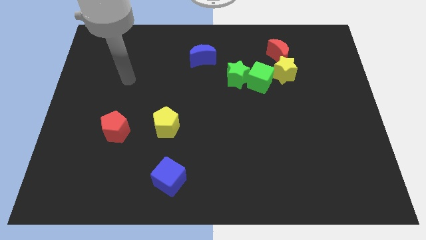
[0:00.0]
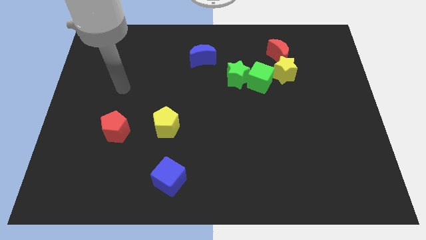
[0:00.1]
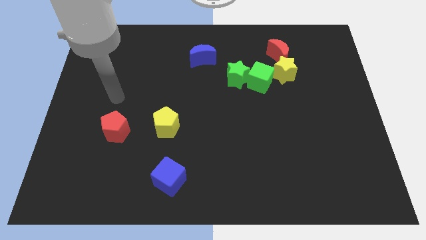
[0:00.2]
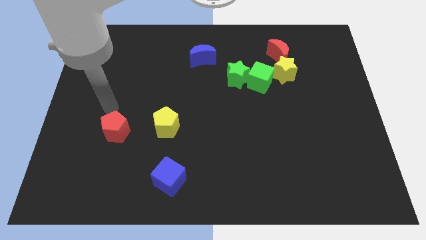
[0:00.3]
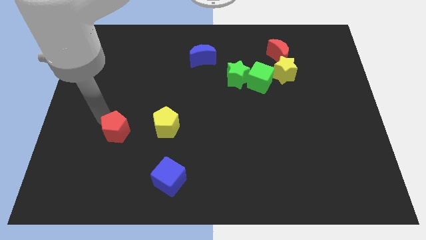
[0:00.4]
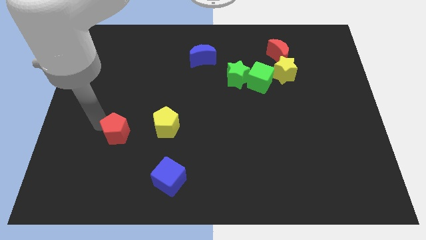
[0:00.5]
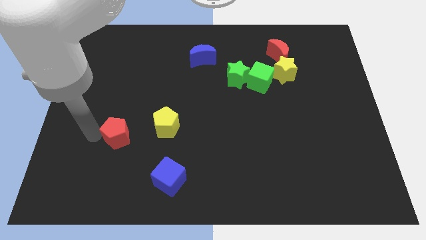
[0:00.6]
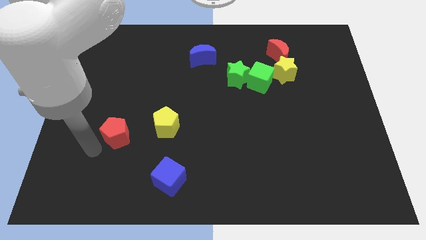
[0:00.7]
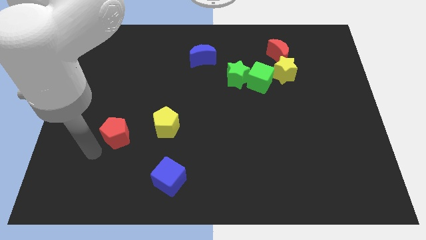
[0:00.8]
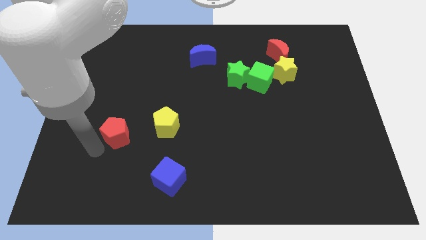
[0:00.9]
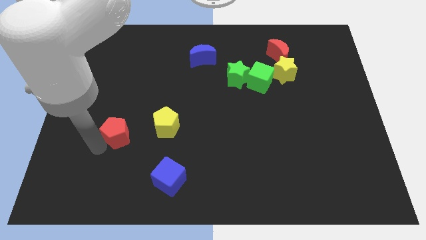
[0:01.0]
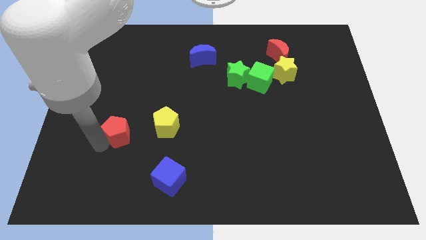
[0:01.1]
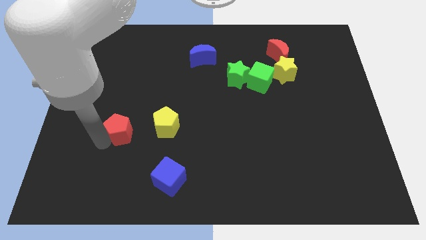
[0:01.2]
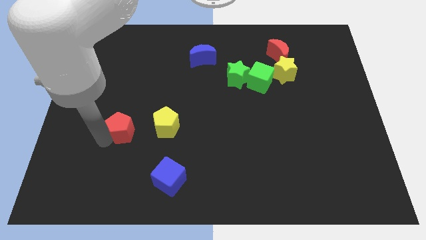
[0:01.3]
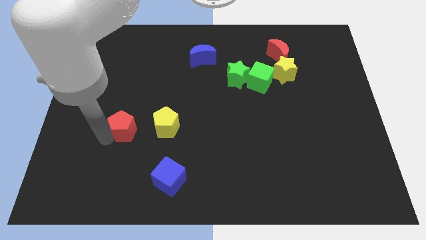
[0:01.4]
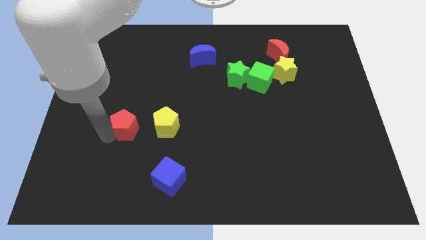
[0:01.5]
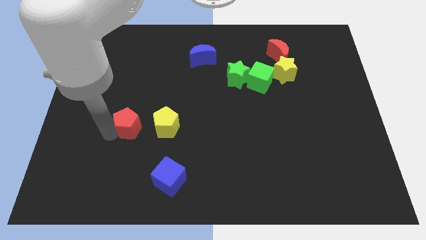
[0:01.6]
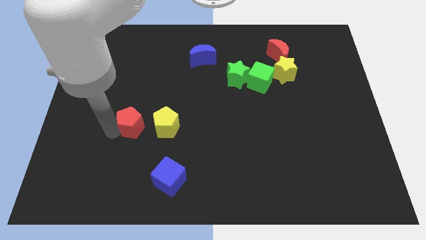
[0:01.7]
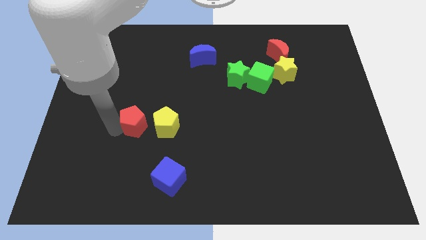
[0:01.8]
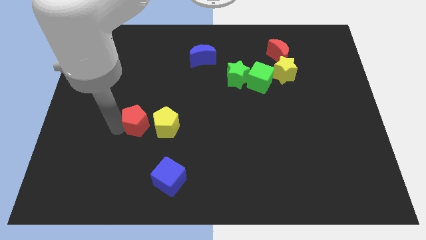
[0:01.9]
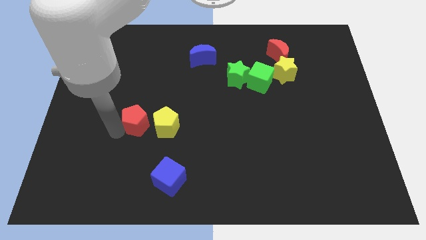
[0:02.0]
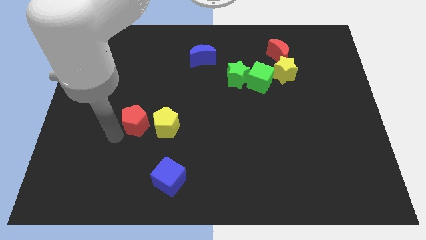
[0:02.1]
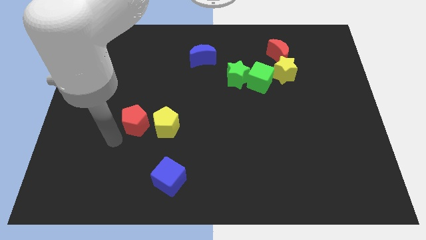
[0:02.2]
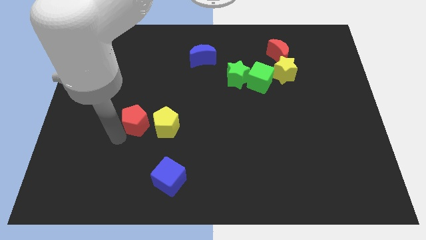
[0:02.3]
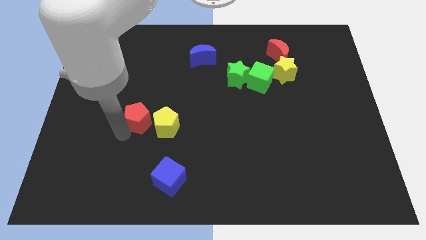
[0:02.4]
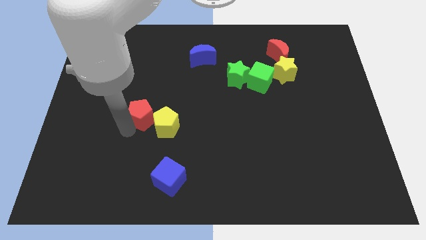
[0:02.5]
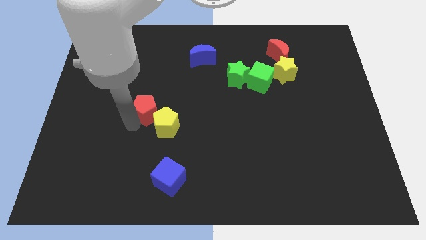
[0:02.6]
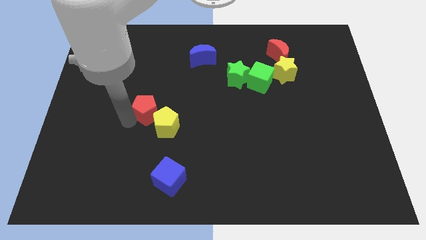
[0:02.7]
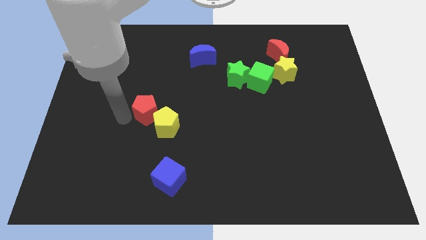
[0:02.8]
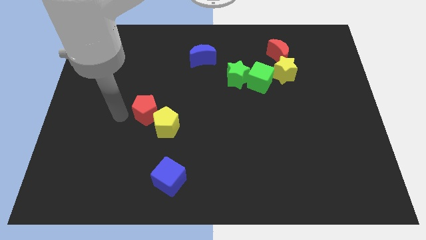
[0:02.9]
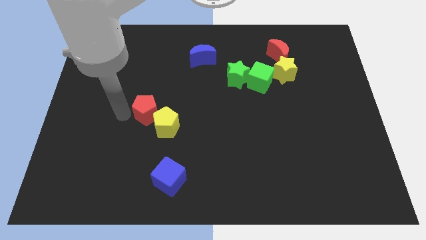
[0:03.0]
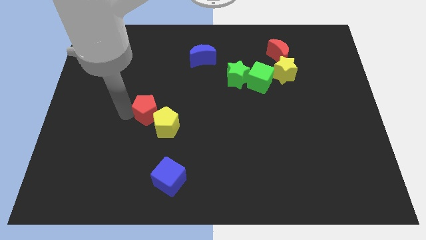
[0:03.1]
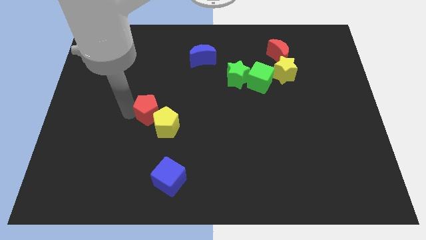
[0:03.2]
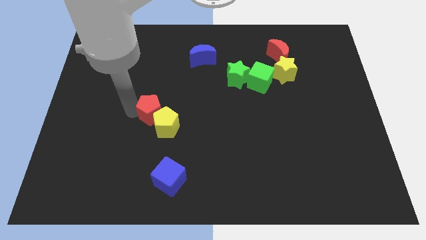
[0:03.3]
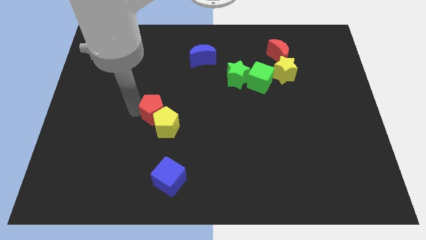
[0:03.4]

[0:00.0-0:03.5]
move the red pentagon to the right a little

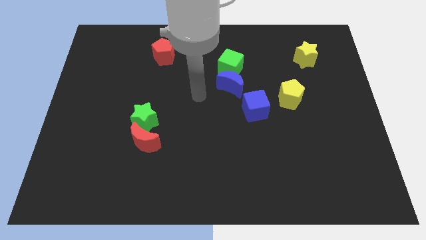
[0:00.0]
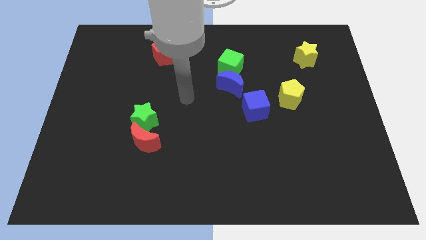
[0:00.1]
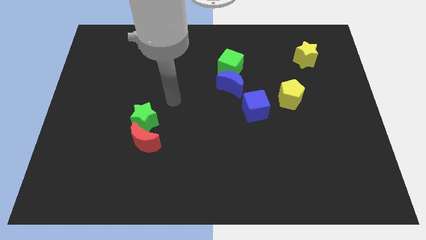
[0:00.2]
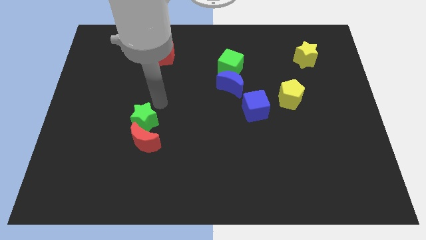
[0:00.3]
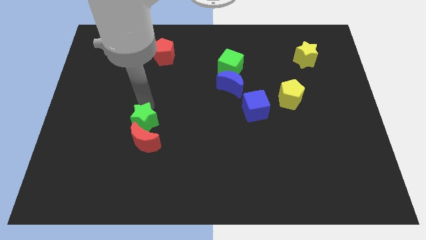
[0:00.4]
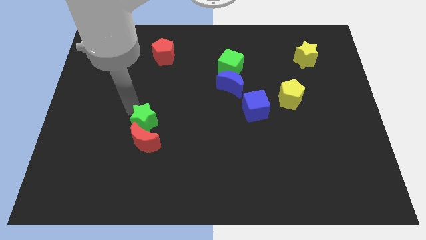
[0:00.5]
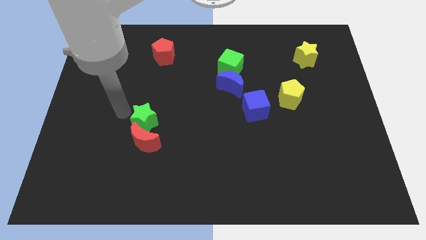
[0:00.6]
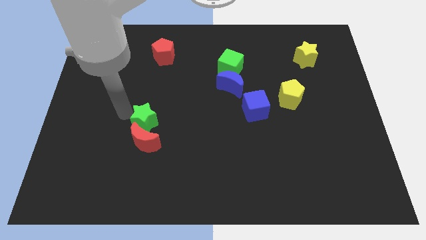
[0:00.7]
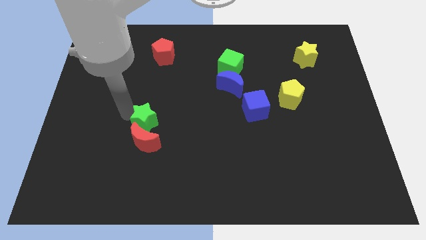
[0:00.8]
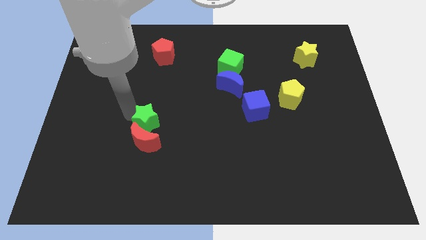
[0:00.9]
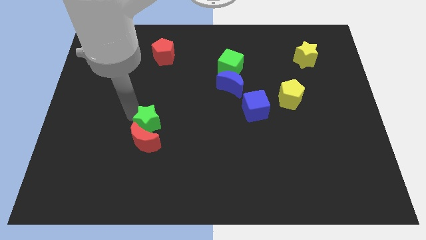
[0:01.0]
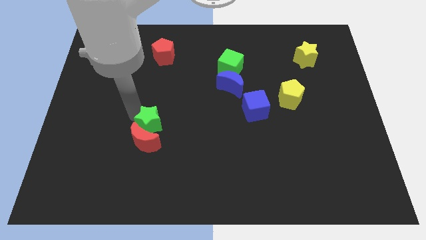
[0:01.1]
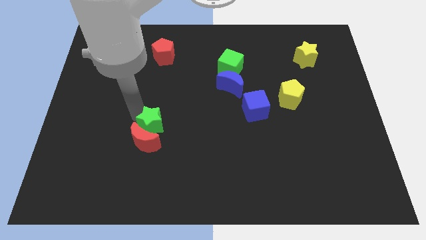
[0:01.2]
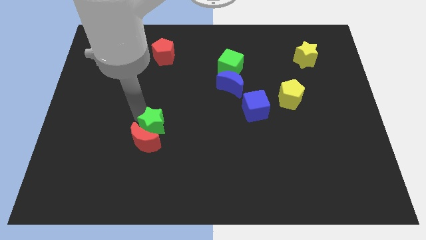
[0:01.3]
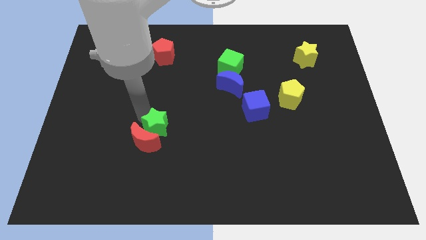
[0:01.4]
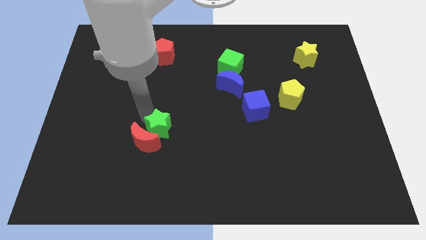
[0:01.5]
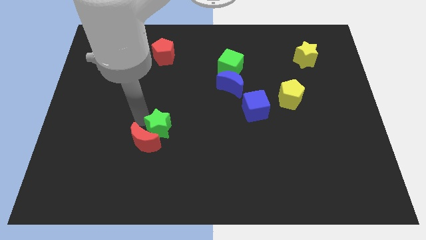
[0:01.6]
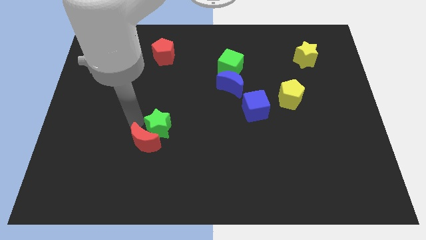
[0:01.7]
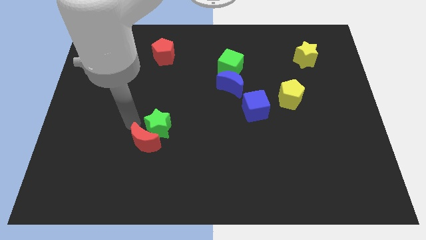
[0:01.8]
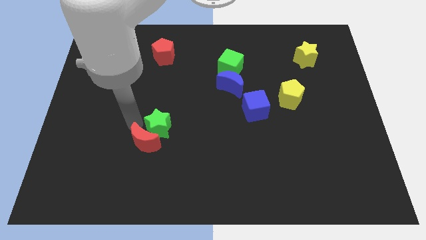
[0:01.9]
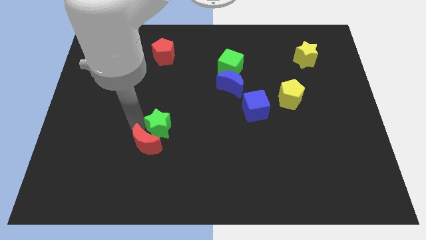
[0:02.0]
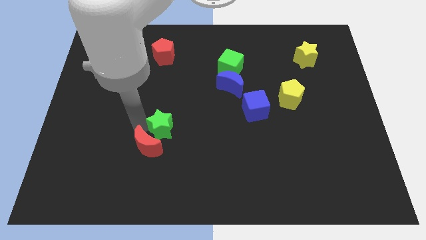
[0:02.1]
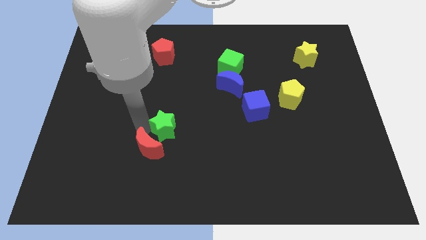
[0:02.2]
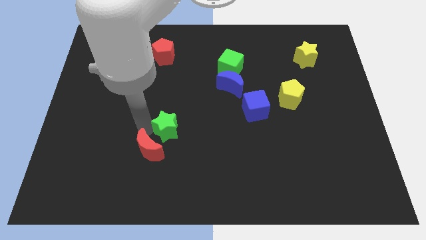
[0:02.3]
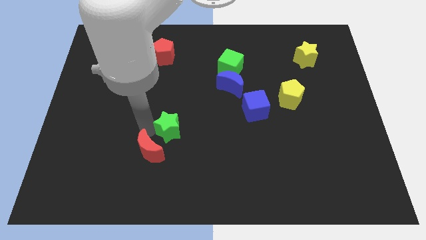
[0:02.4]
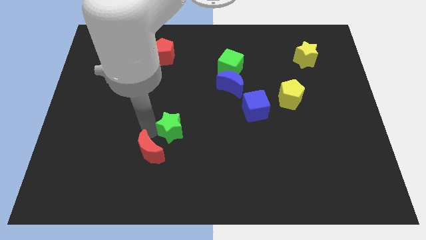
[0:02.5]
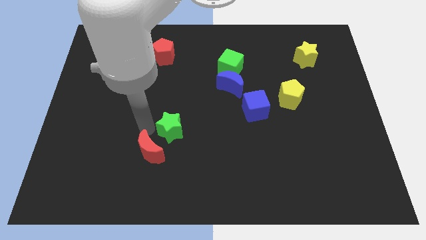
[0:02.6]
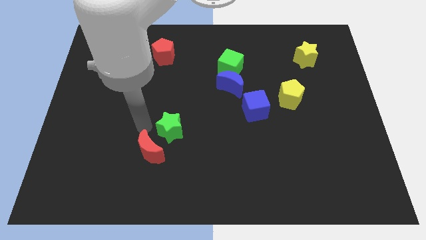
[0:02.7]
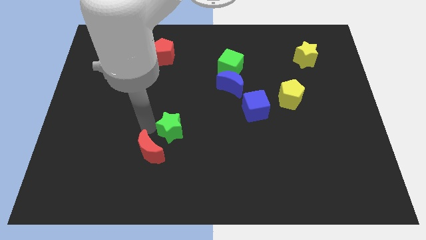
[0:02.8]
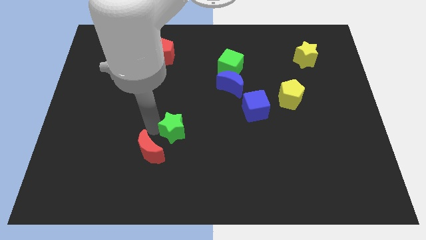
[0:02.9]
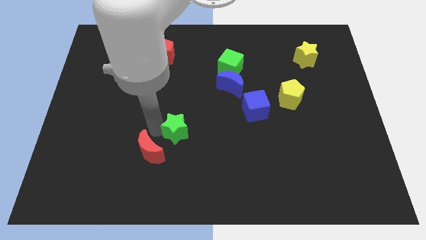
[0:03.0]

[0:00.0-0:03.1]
slightly slide the green star right

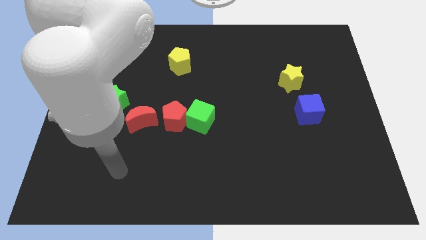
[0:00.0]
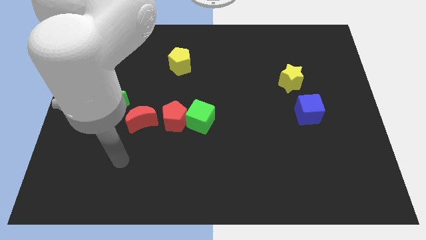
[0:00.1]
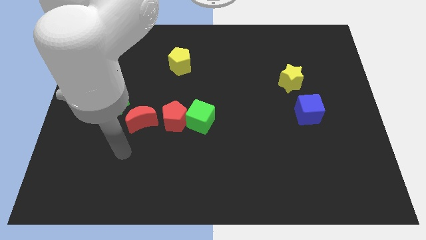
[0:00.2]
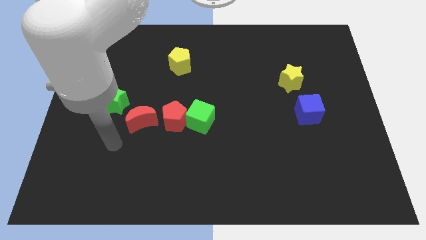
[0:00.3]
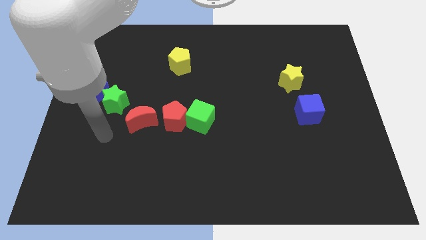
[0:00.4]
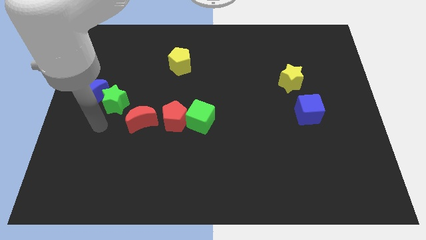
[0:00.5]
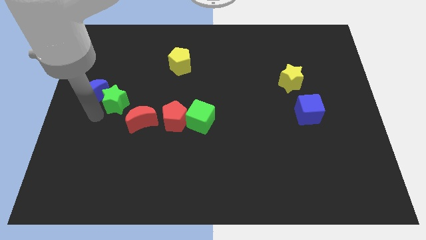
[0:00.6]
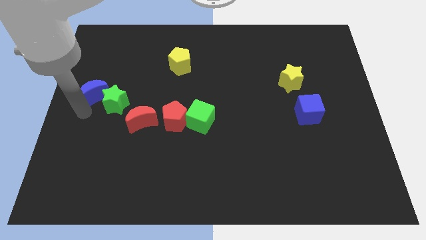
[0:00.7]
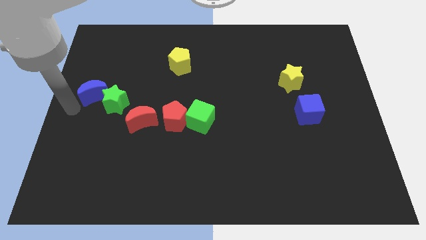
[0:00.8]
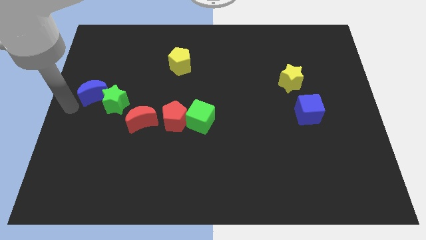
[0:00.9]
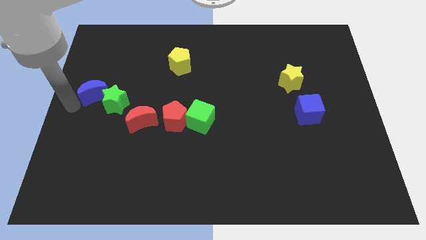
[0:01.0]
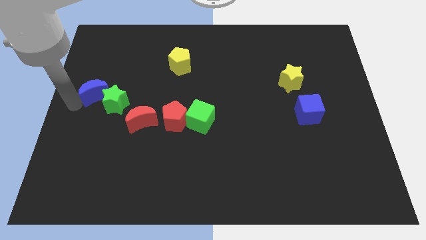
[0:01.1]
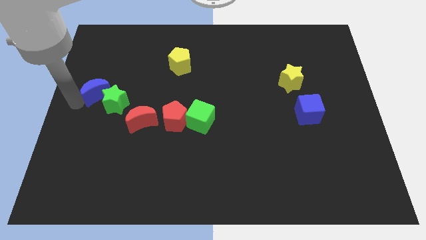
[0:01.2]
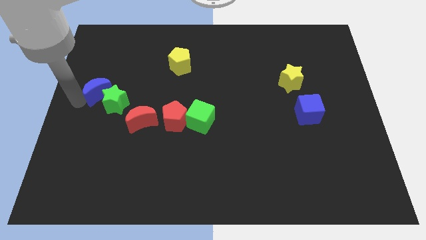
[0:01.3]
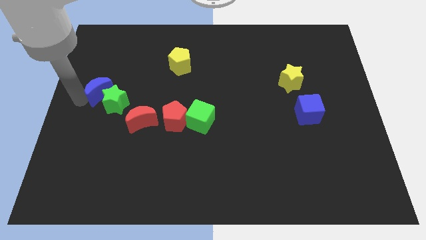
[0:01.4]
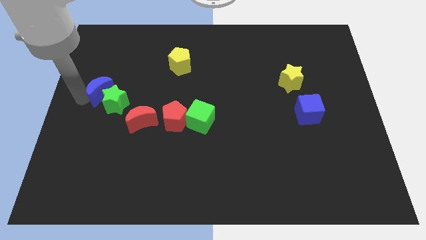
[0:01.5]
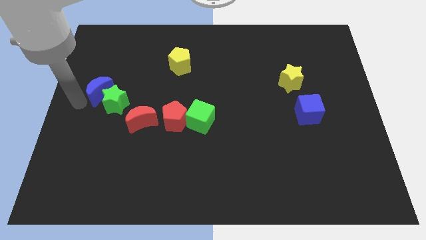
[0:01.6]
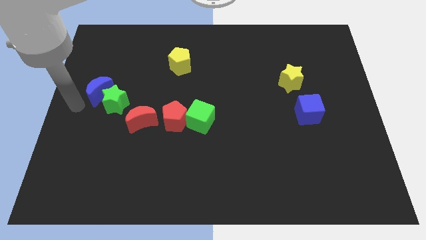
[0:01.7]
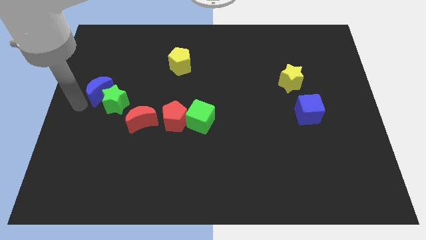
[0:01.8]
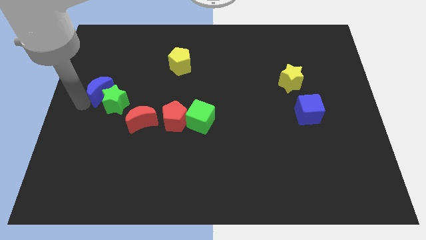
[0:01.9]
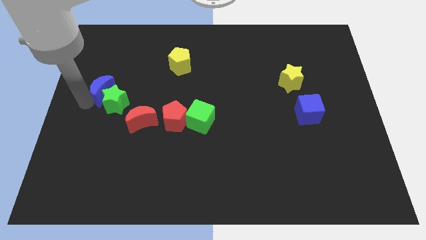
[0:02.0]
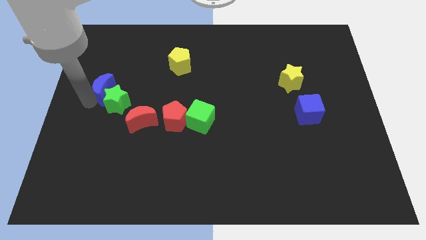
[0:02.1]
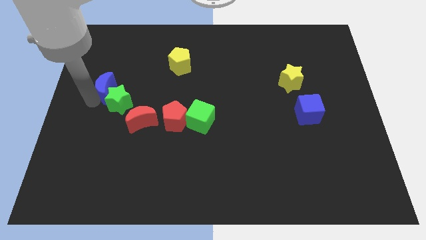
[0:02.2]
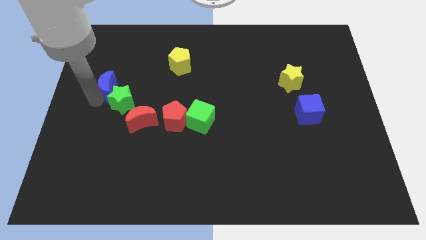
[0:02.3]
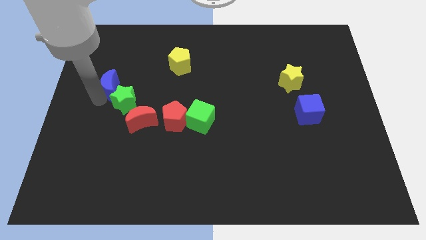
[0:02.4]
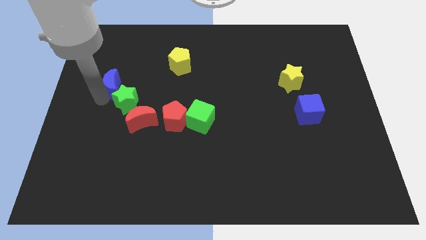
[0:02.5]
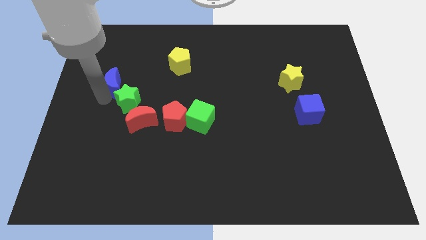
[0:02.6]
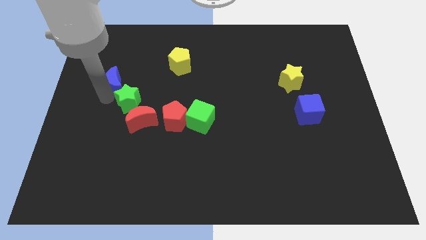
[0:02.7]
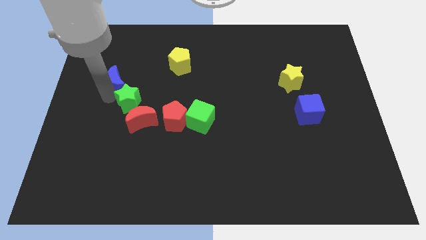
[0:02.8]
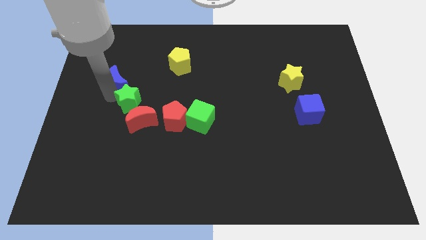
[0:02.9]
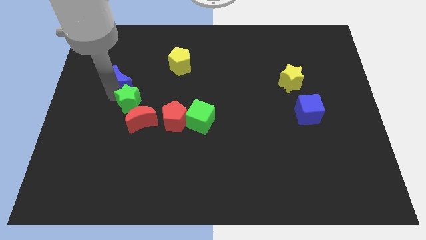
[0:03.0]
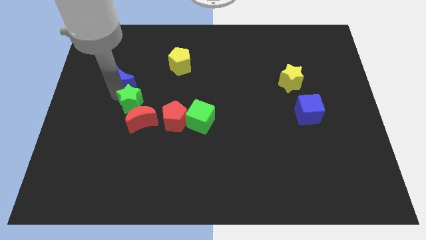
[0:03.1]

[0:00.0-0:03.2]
slightly push the blue moon up and to the right
